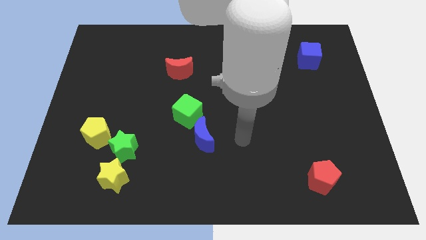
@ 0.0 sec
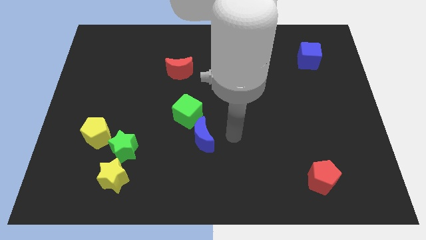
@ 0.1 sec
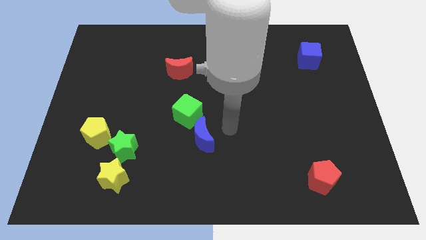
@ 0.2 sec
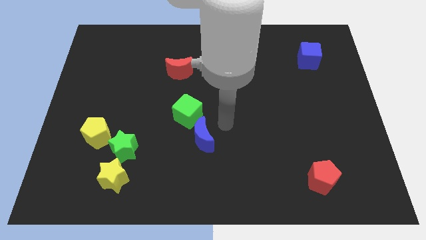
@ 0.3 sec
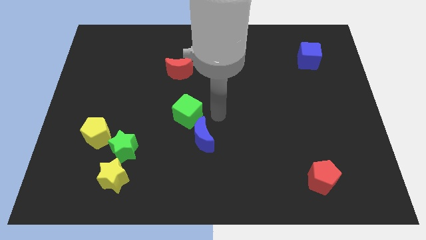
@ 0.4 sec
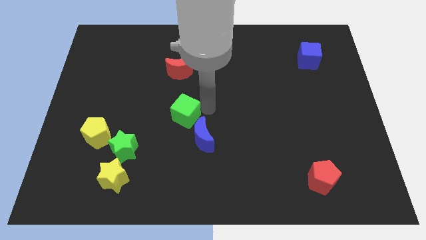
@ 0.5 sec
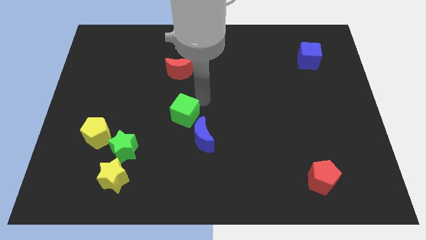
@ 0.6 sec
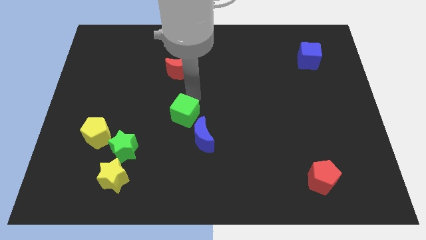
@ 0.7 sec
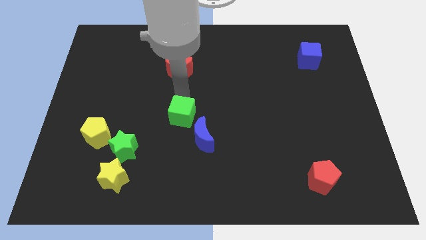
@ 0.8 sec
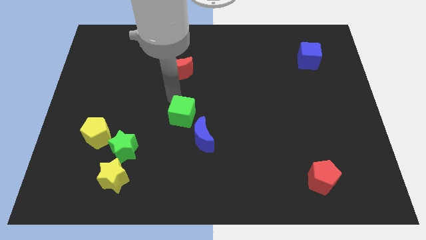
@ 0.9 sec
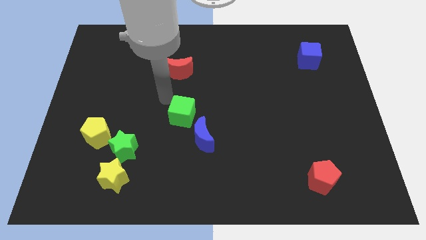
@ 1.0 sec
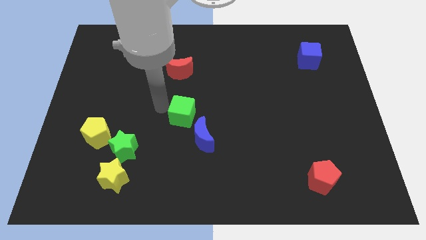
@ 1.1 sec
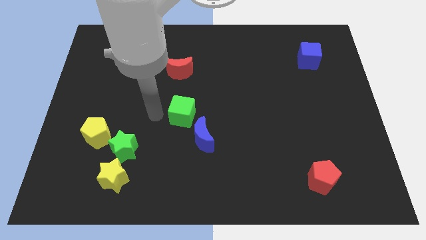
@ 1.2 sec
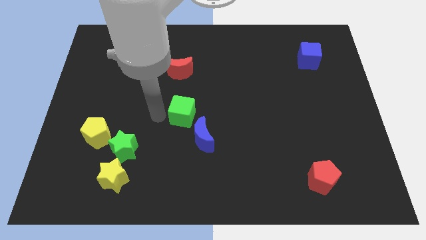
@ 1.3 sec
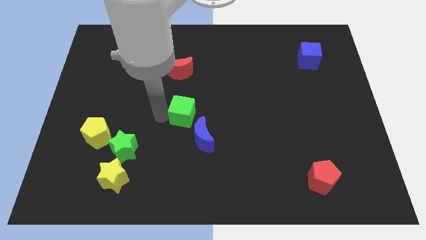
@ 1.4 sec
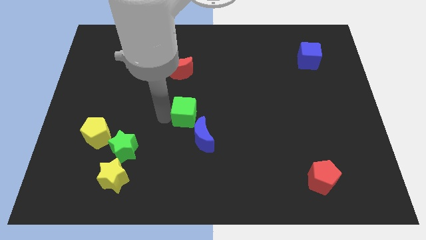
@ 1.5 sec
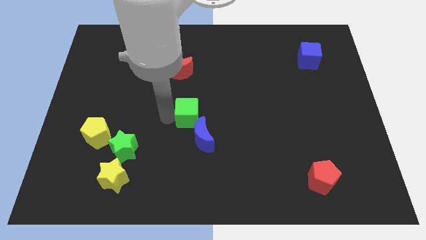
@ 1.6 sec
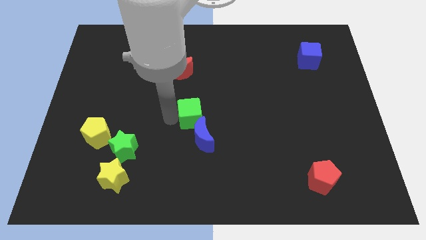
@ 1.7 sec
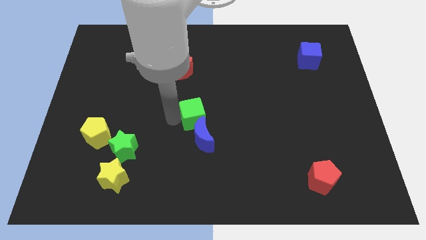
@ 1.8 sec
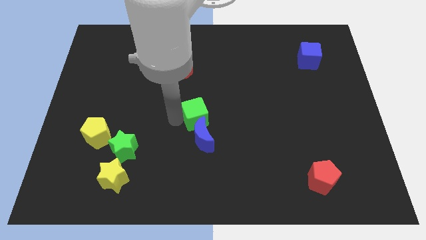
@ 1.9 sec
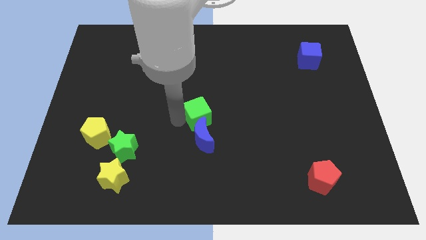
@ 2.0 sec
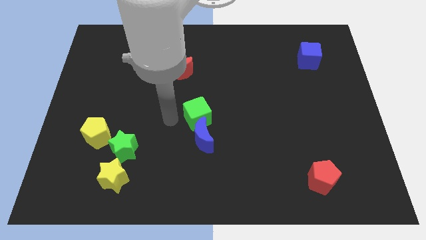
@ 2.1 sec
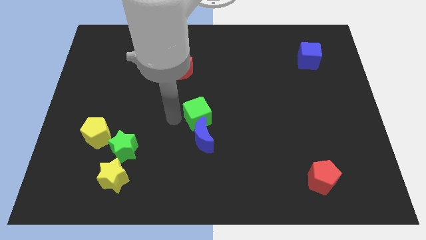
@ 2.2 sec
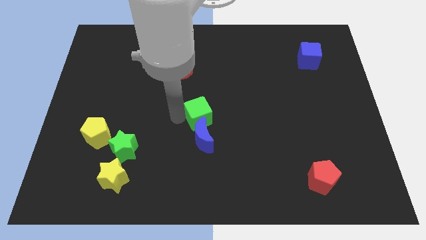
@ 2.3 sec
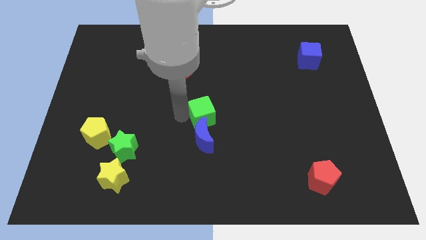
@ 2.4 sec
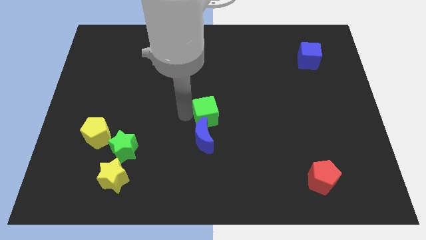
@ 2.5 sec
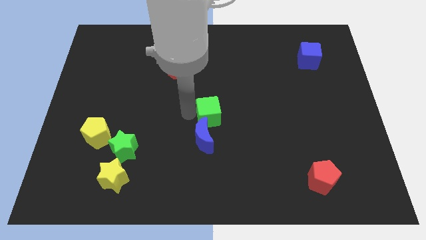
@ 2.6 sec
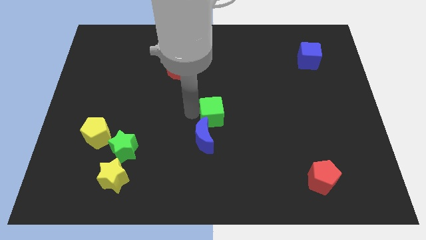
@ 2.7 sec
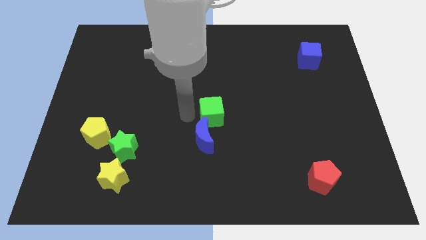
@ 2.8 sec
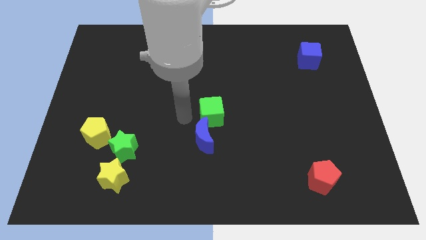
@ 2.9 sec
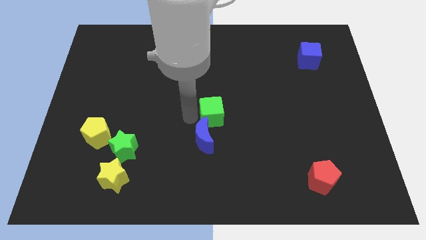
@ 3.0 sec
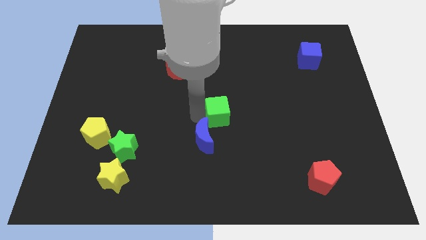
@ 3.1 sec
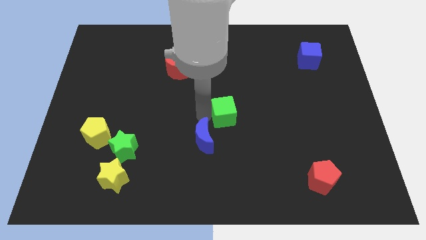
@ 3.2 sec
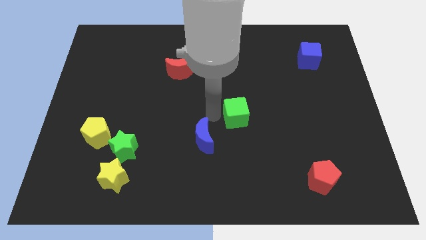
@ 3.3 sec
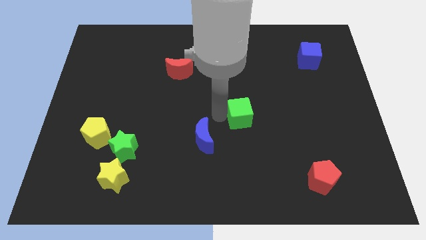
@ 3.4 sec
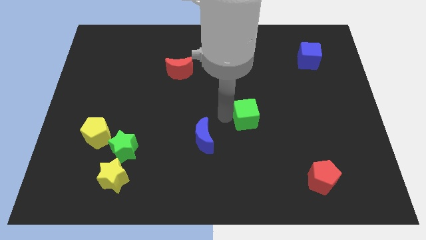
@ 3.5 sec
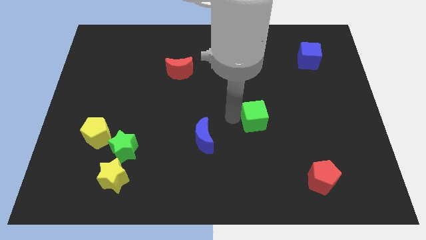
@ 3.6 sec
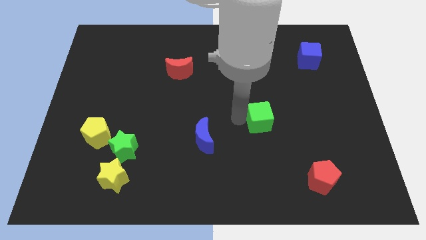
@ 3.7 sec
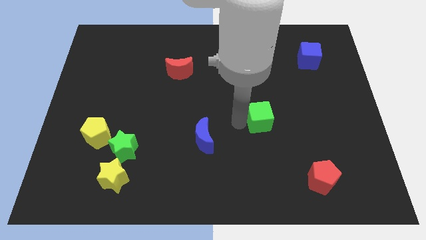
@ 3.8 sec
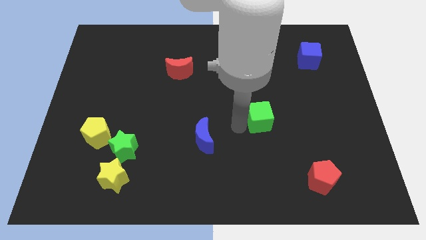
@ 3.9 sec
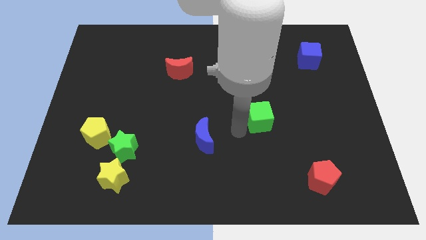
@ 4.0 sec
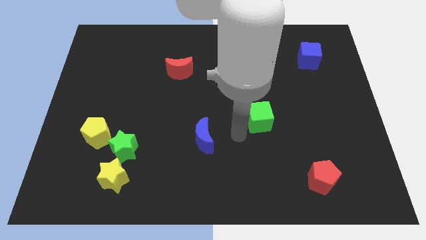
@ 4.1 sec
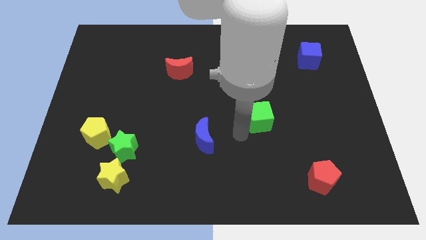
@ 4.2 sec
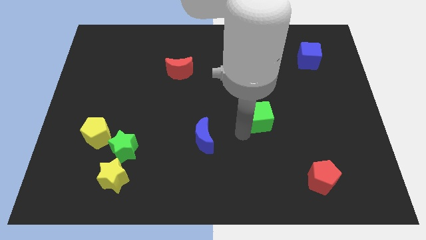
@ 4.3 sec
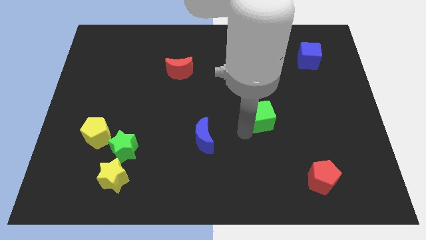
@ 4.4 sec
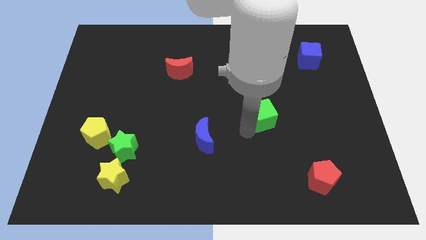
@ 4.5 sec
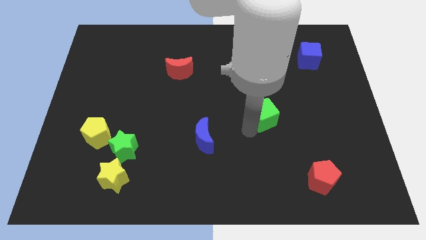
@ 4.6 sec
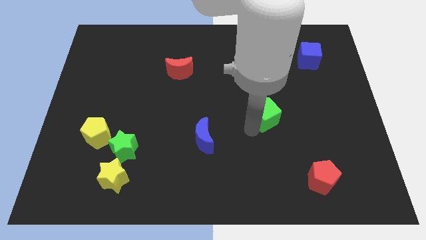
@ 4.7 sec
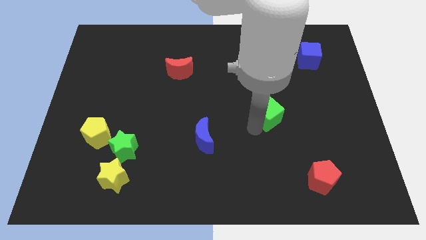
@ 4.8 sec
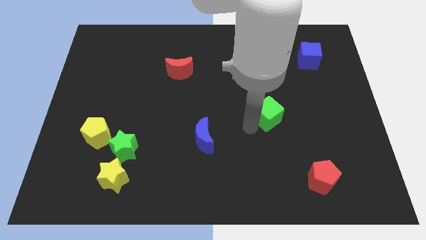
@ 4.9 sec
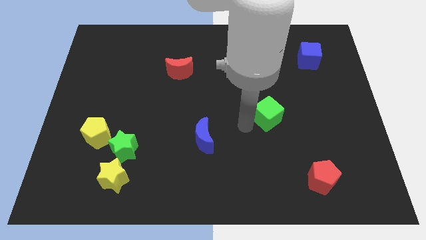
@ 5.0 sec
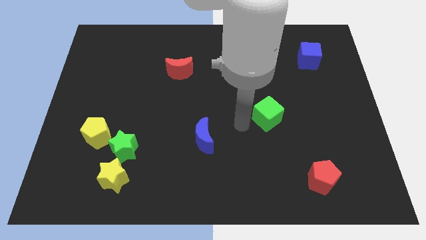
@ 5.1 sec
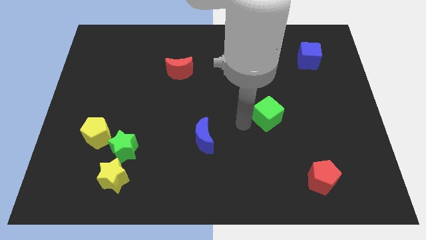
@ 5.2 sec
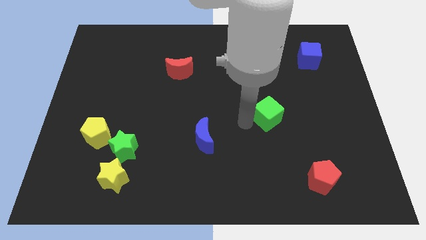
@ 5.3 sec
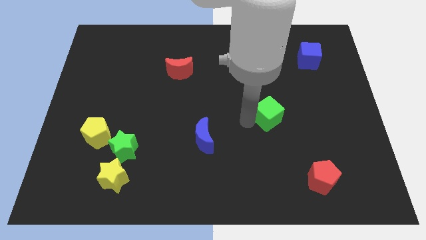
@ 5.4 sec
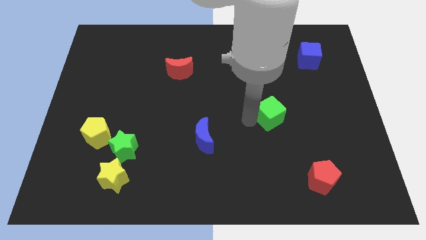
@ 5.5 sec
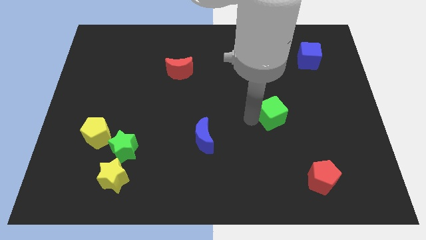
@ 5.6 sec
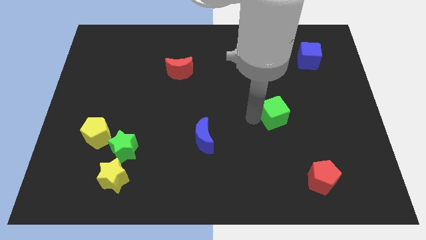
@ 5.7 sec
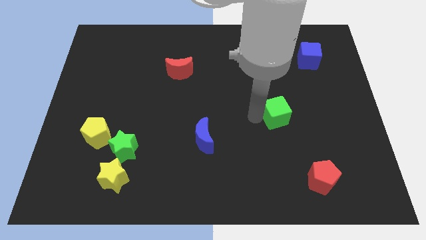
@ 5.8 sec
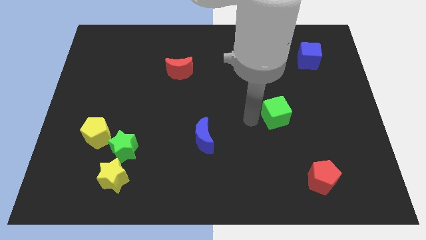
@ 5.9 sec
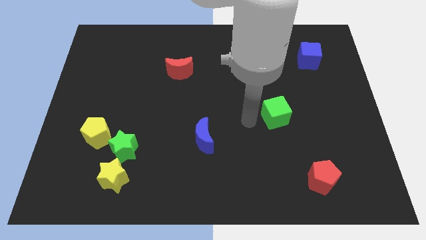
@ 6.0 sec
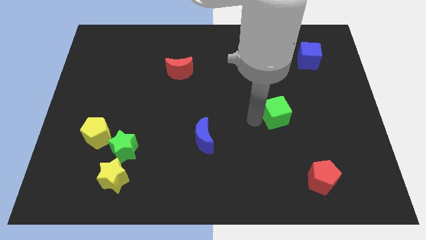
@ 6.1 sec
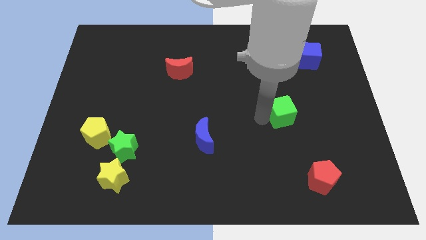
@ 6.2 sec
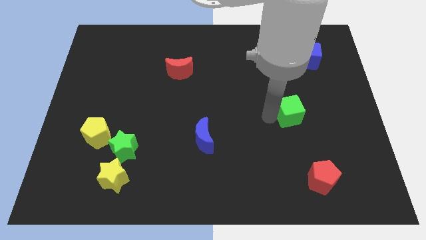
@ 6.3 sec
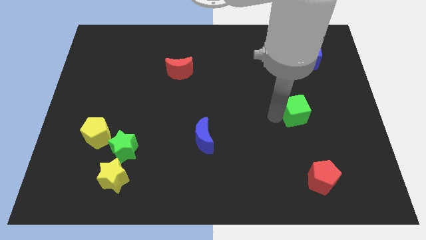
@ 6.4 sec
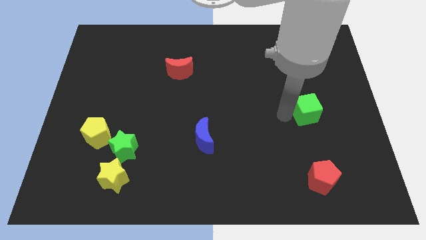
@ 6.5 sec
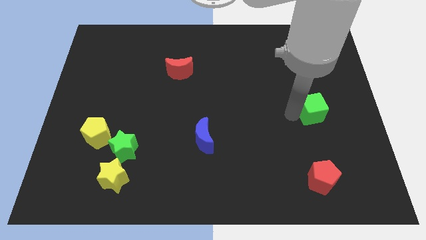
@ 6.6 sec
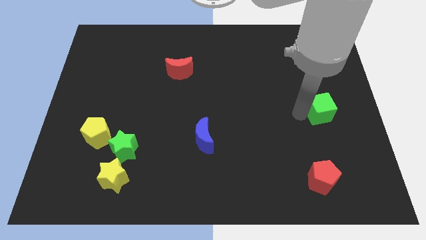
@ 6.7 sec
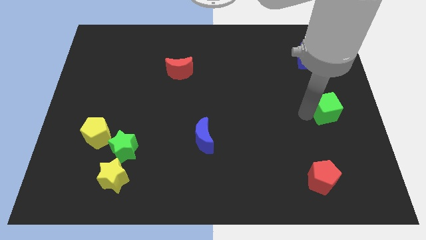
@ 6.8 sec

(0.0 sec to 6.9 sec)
push the green cube to the center right
